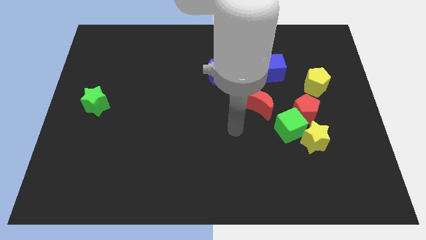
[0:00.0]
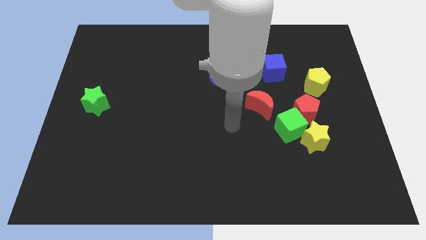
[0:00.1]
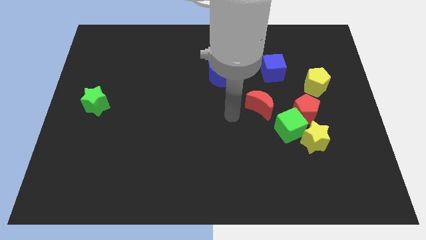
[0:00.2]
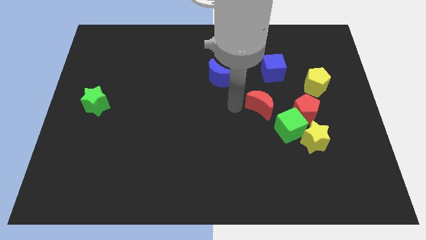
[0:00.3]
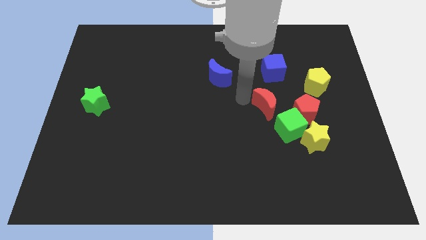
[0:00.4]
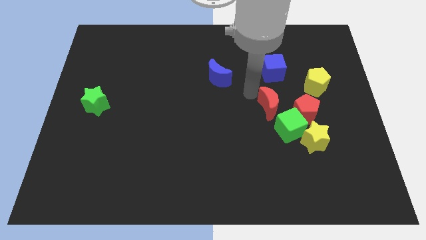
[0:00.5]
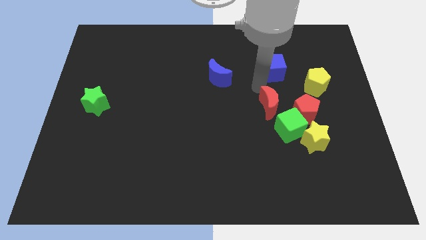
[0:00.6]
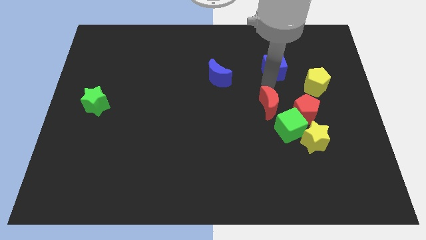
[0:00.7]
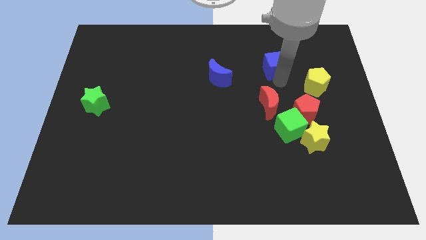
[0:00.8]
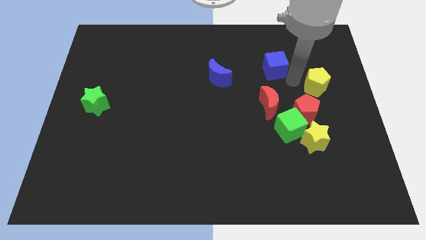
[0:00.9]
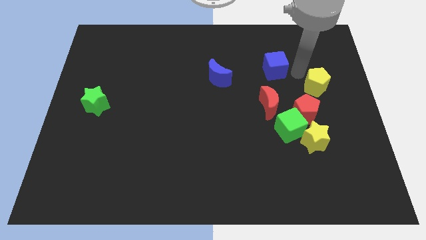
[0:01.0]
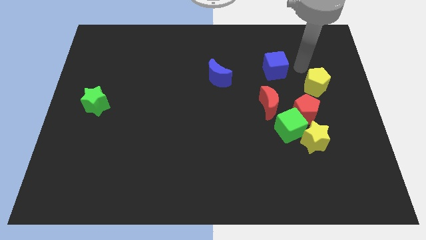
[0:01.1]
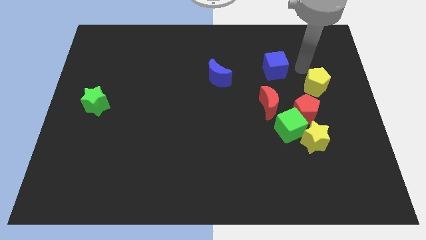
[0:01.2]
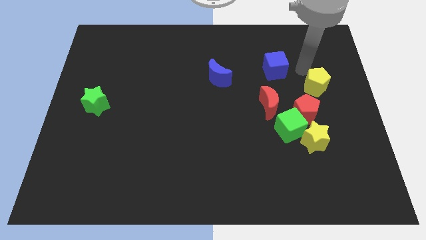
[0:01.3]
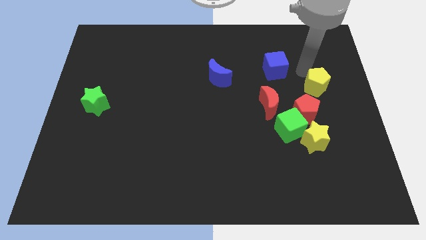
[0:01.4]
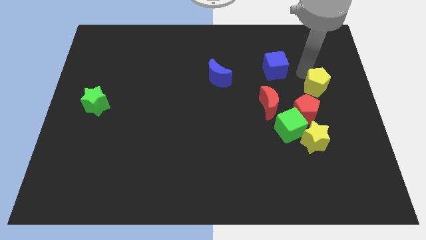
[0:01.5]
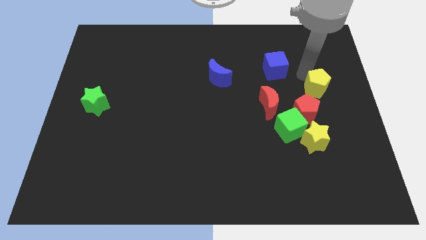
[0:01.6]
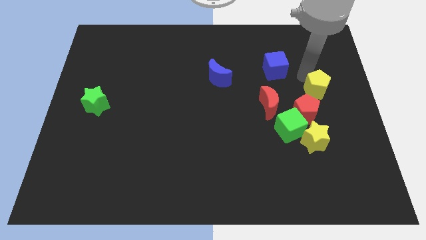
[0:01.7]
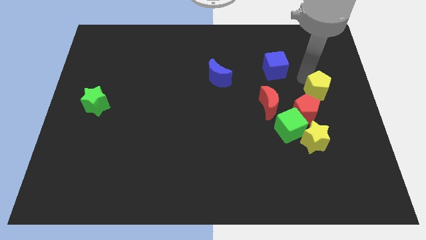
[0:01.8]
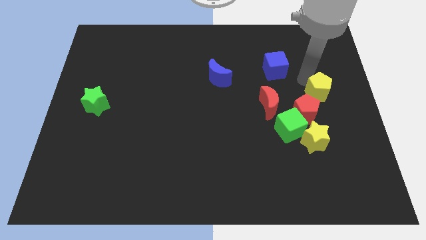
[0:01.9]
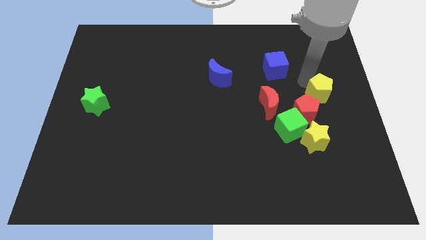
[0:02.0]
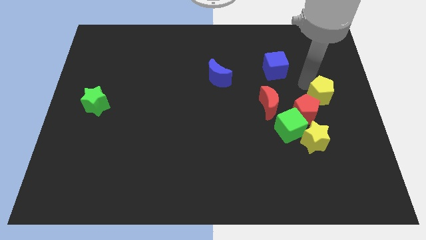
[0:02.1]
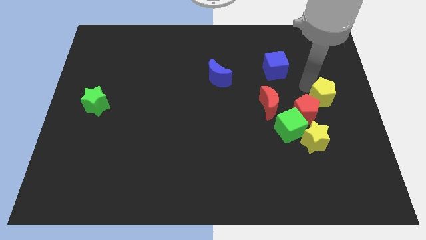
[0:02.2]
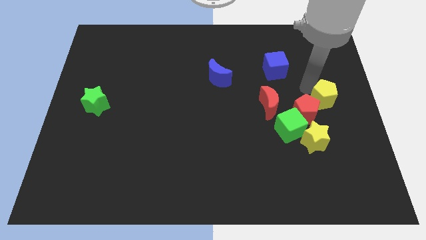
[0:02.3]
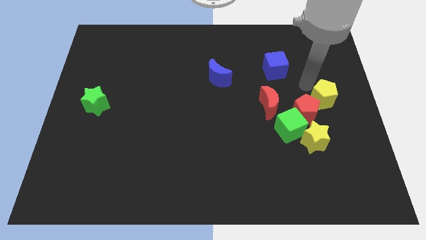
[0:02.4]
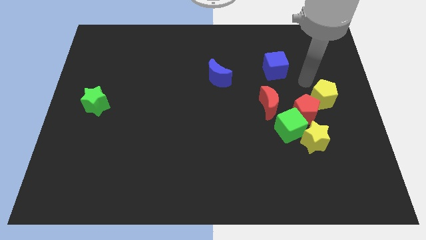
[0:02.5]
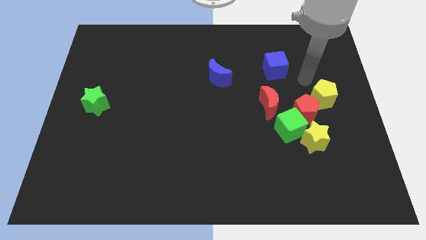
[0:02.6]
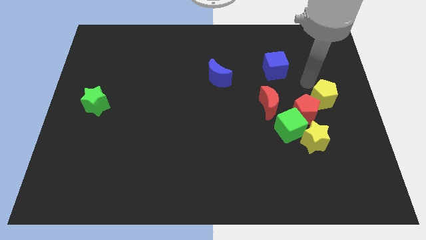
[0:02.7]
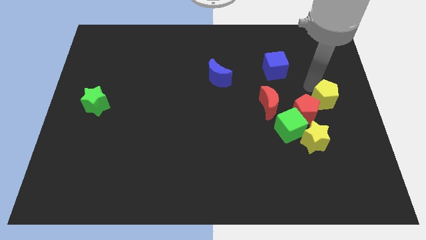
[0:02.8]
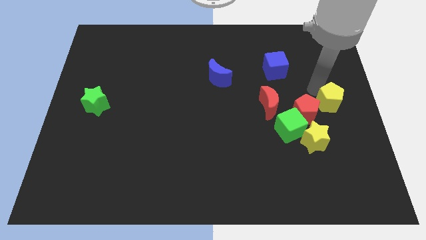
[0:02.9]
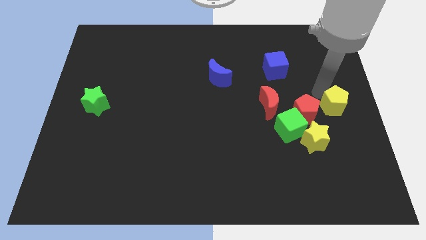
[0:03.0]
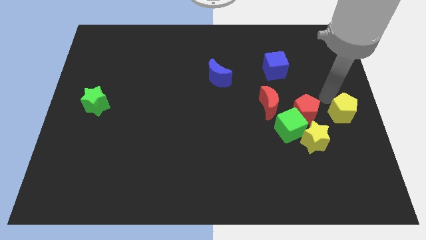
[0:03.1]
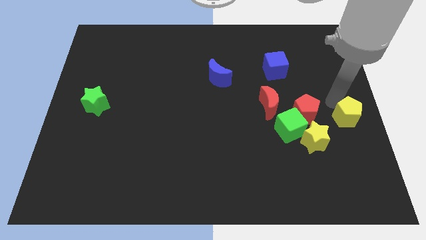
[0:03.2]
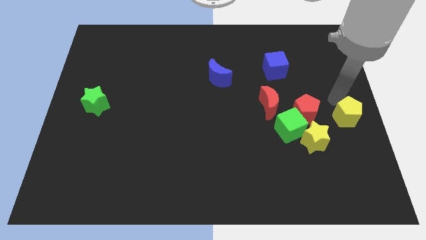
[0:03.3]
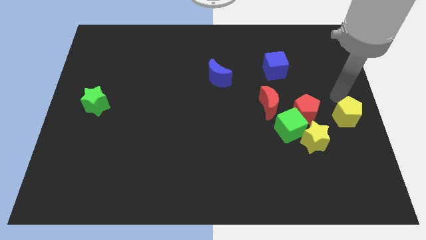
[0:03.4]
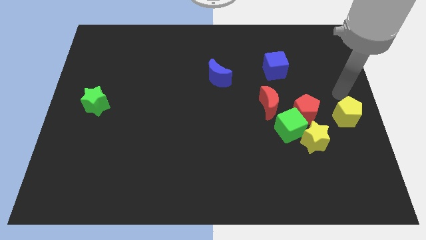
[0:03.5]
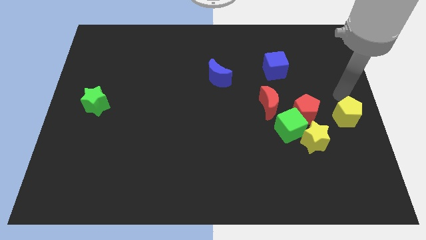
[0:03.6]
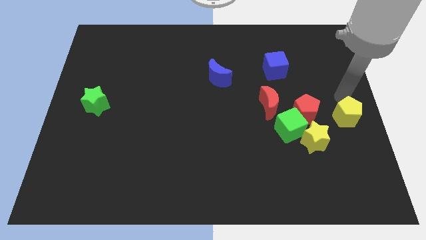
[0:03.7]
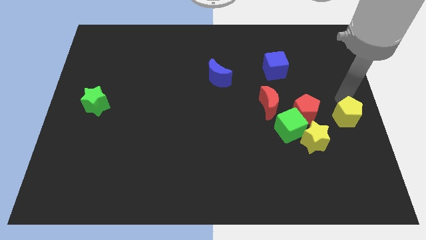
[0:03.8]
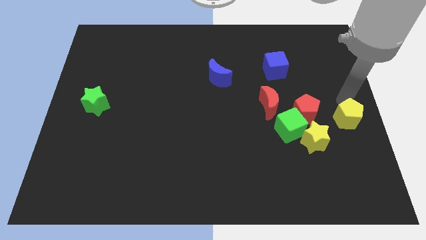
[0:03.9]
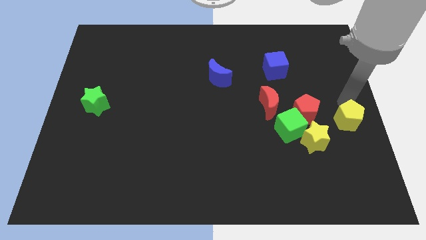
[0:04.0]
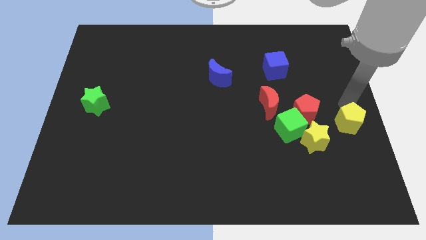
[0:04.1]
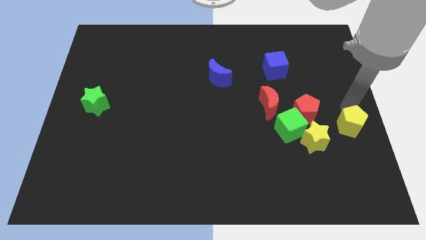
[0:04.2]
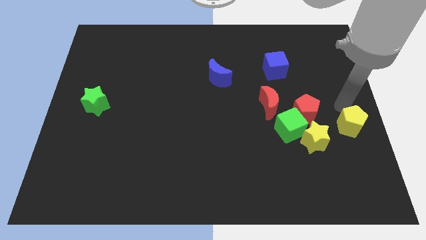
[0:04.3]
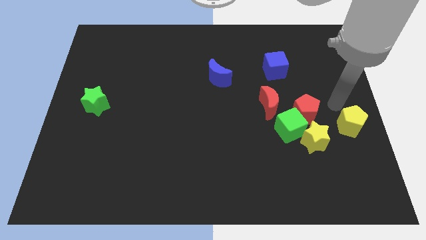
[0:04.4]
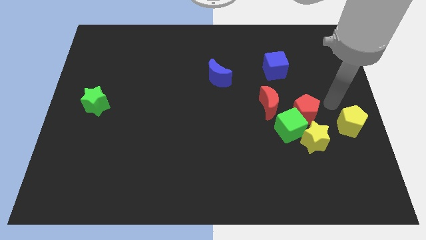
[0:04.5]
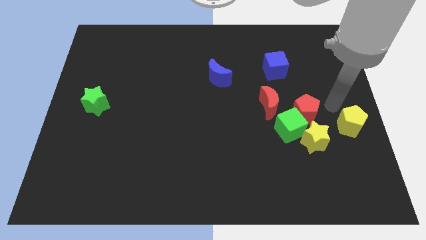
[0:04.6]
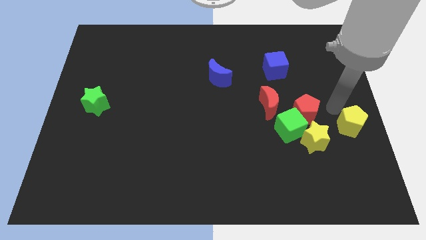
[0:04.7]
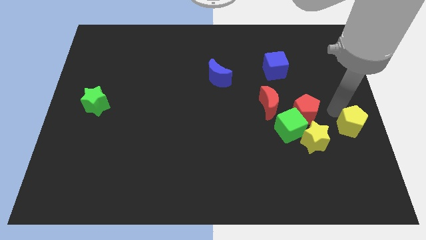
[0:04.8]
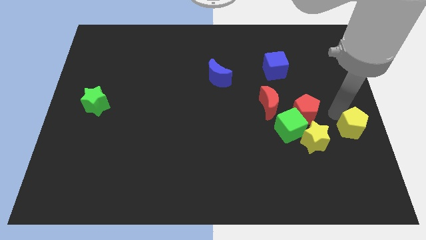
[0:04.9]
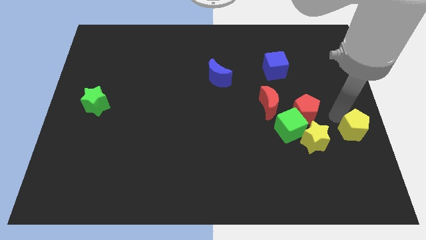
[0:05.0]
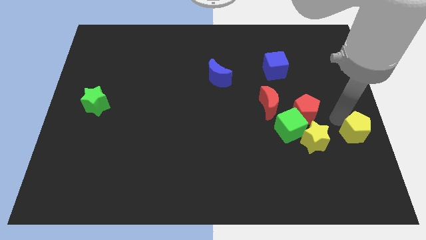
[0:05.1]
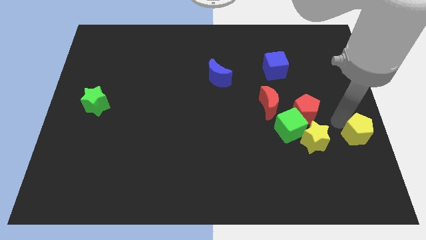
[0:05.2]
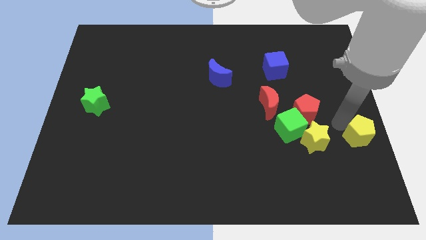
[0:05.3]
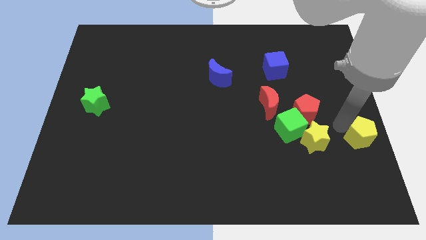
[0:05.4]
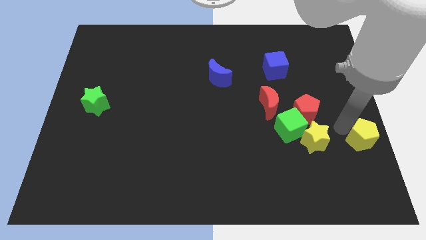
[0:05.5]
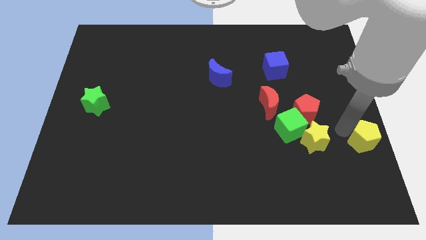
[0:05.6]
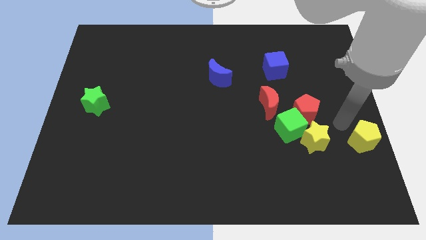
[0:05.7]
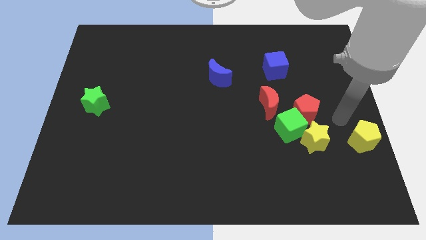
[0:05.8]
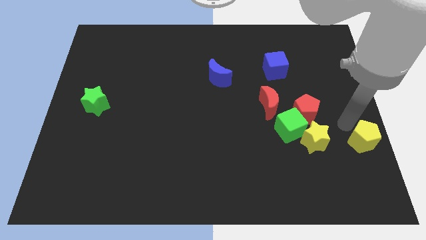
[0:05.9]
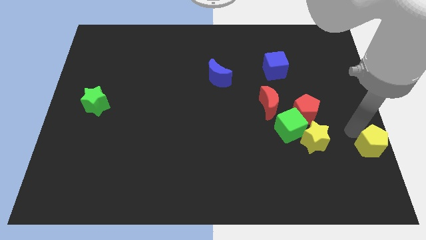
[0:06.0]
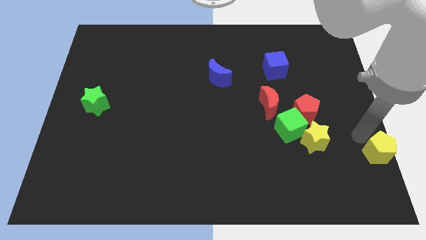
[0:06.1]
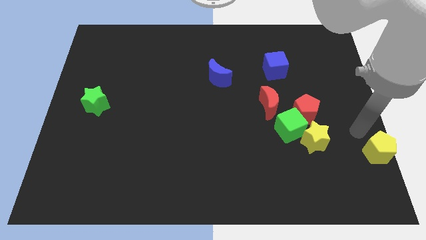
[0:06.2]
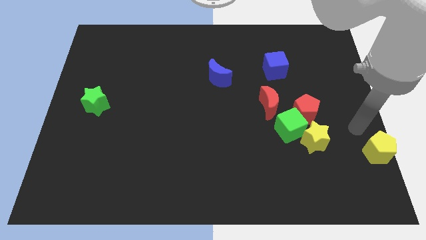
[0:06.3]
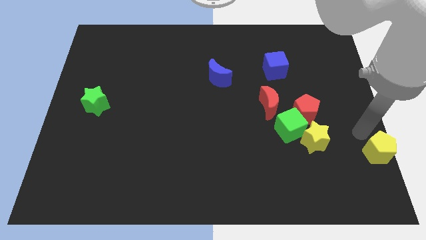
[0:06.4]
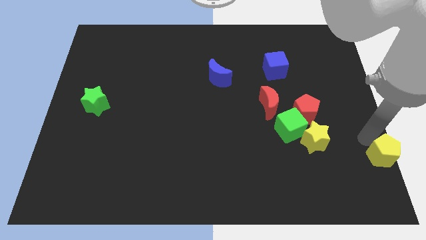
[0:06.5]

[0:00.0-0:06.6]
put the yellow pentagon to the bottom right
